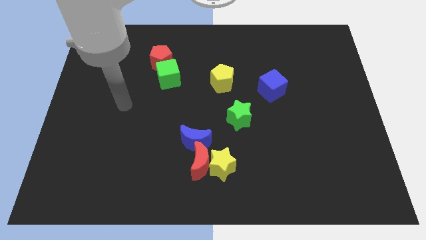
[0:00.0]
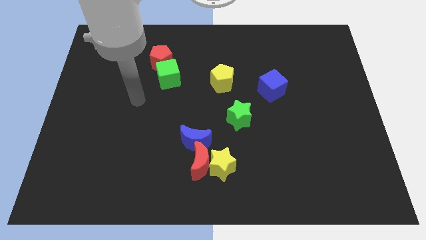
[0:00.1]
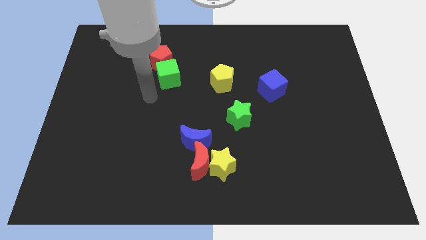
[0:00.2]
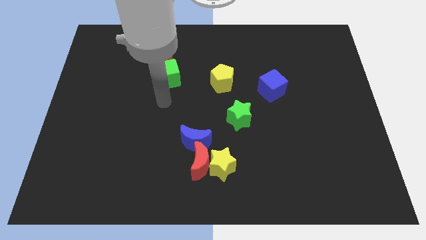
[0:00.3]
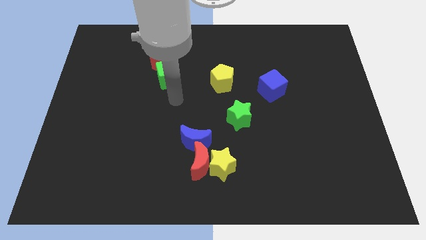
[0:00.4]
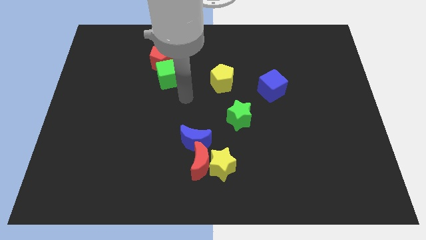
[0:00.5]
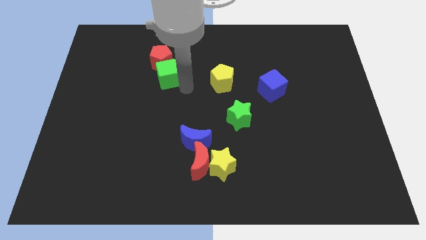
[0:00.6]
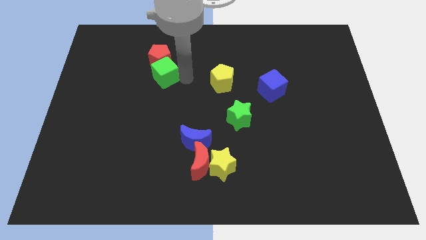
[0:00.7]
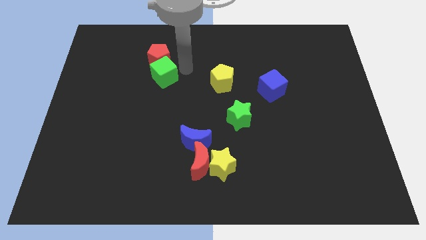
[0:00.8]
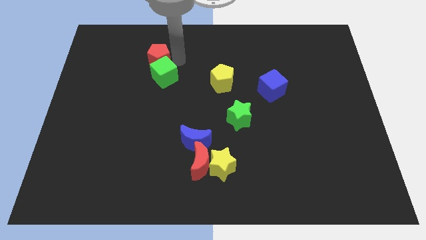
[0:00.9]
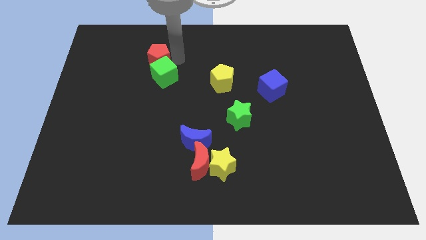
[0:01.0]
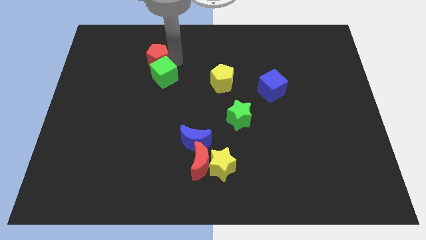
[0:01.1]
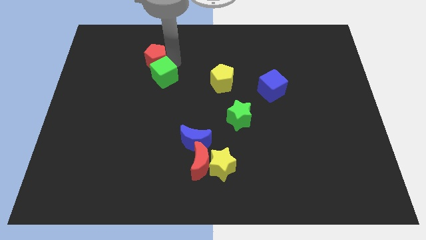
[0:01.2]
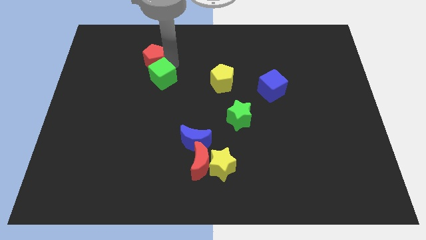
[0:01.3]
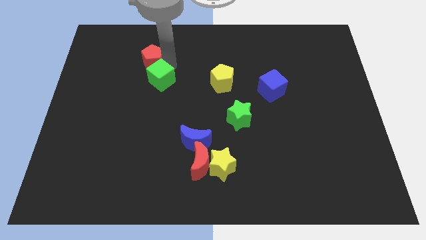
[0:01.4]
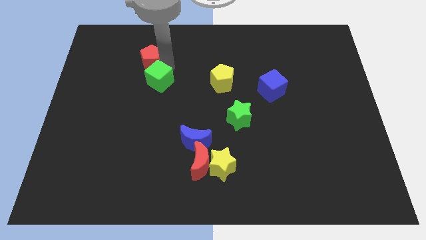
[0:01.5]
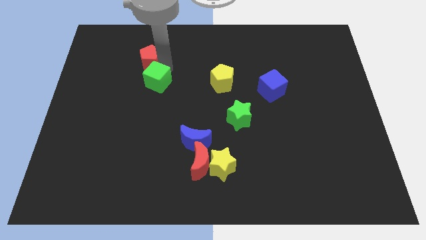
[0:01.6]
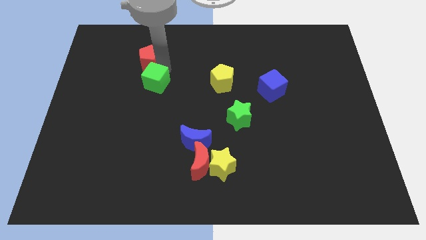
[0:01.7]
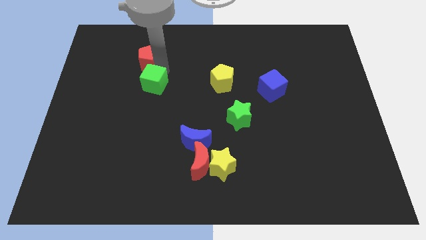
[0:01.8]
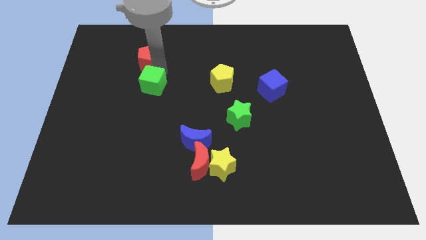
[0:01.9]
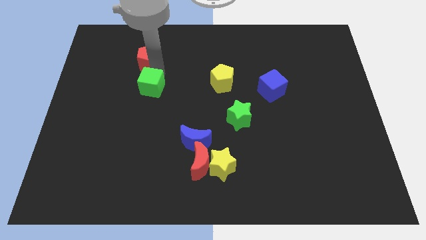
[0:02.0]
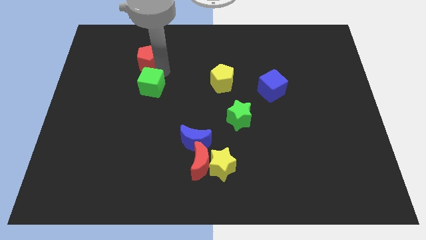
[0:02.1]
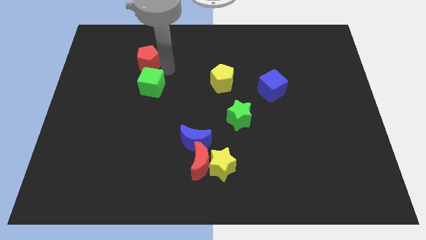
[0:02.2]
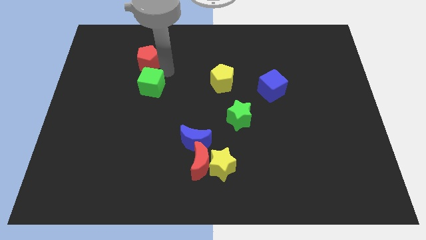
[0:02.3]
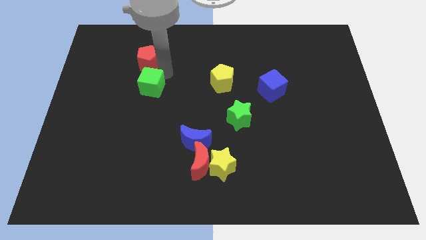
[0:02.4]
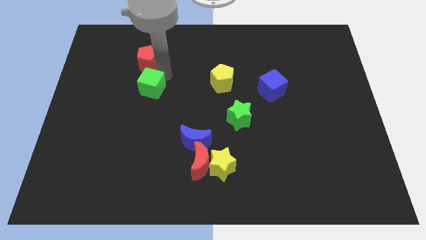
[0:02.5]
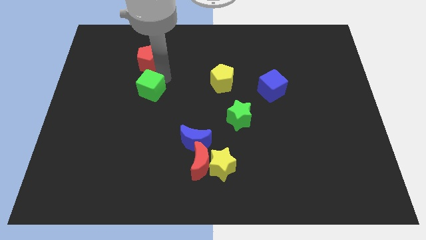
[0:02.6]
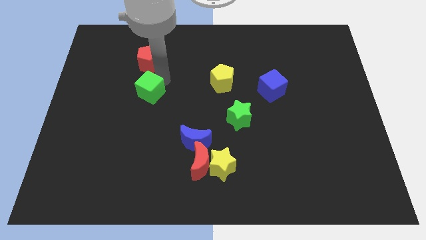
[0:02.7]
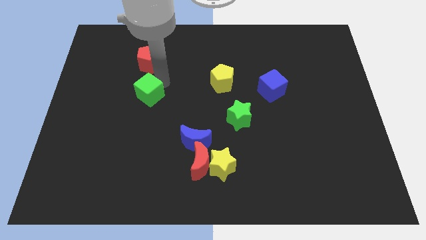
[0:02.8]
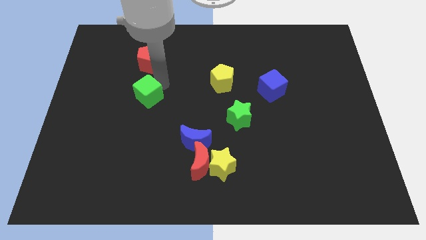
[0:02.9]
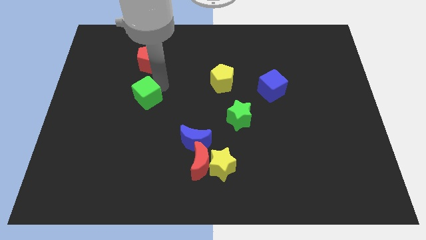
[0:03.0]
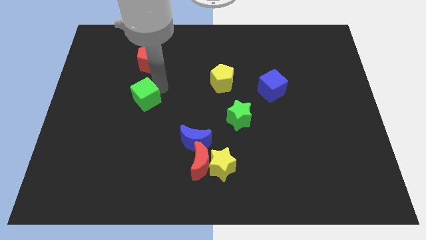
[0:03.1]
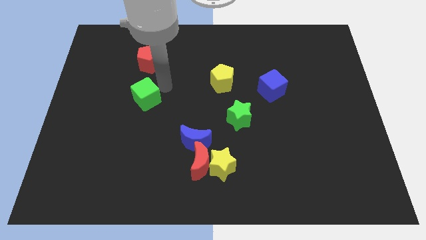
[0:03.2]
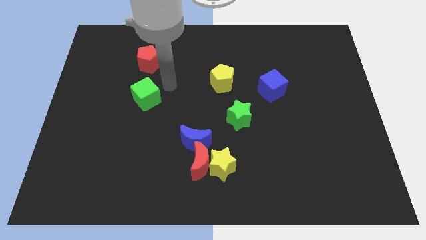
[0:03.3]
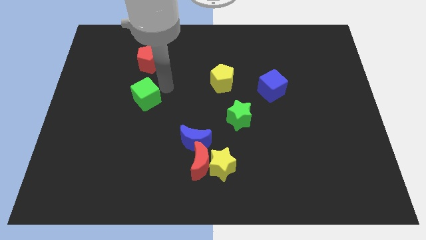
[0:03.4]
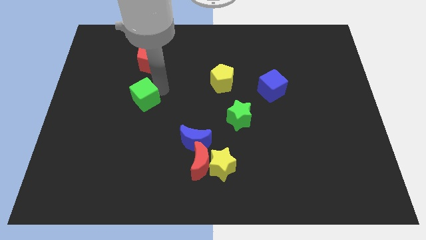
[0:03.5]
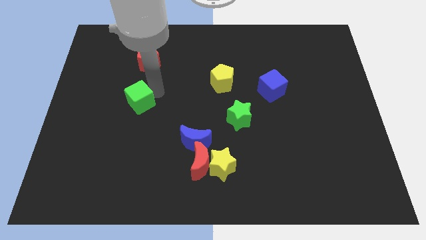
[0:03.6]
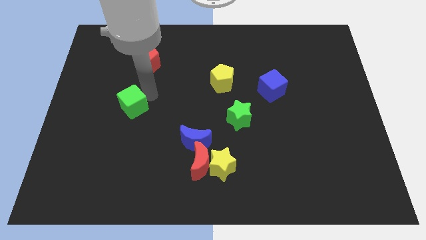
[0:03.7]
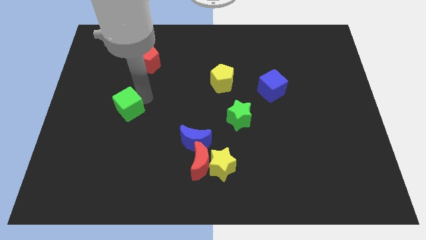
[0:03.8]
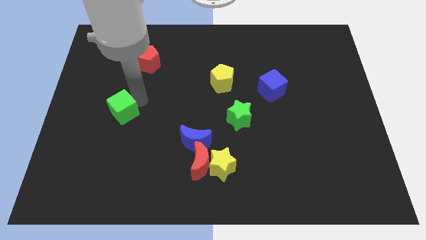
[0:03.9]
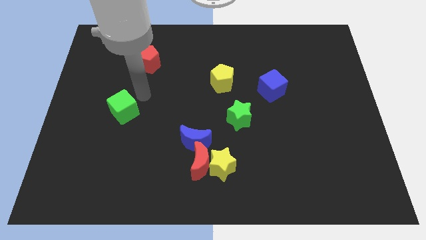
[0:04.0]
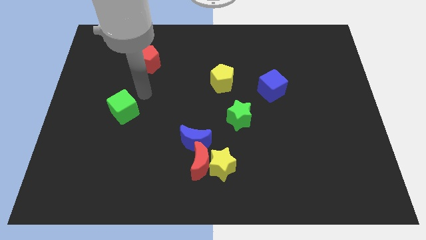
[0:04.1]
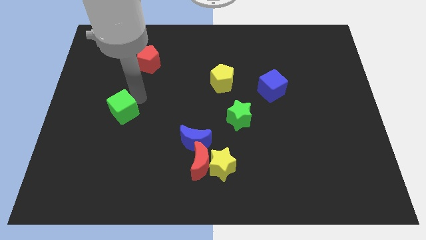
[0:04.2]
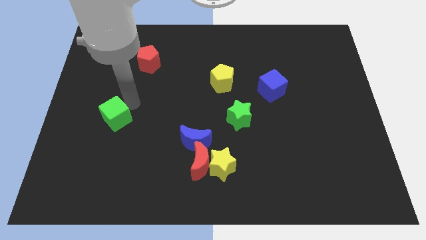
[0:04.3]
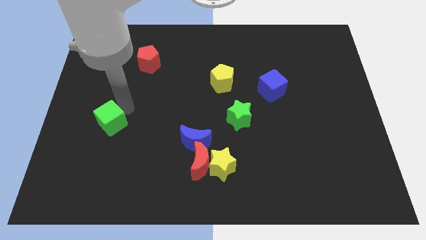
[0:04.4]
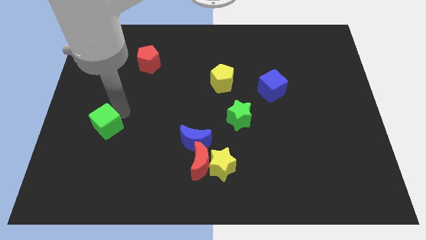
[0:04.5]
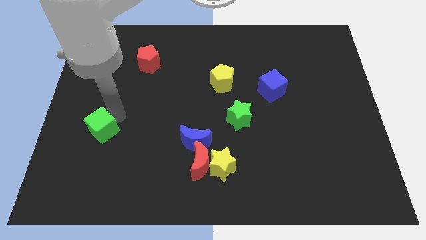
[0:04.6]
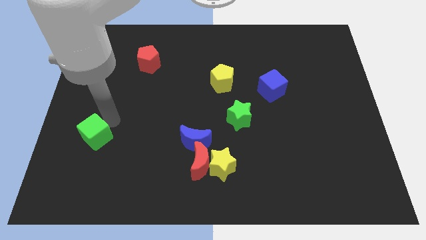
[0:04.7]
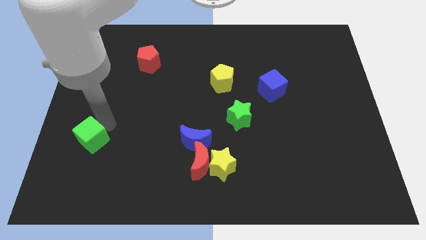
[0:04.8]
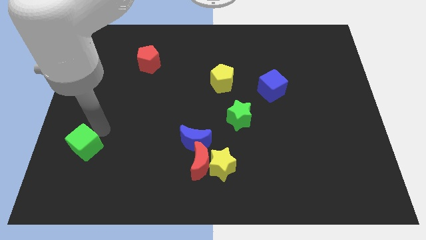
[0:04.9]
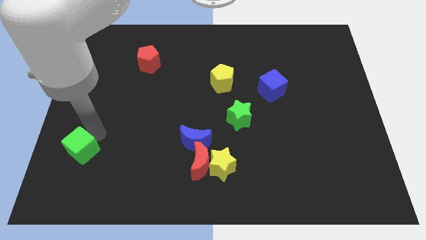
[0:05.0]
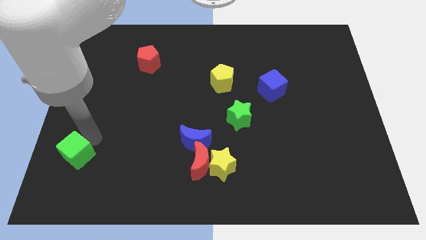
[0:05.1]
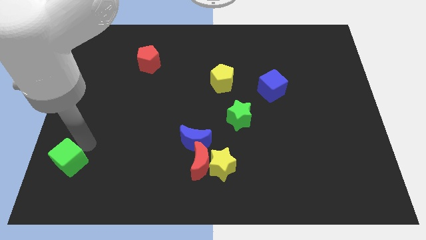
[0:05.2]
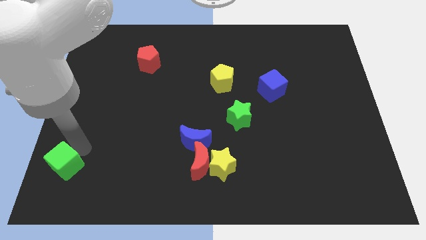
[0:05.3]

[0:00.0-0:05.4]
slide the green cube to the bottom left of the board

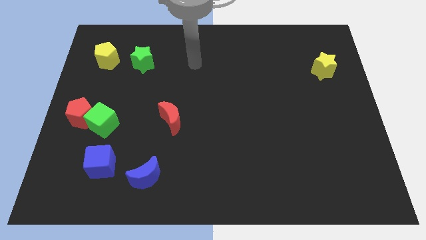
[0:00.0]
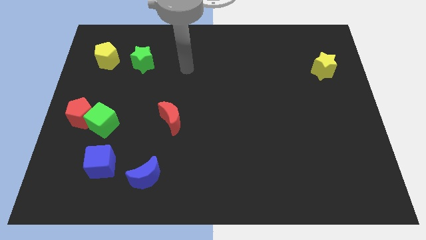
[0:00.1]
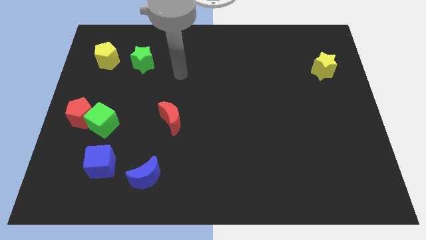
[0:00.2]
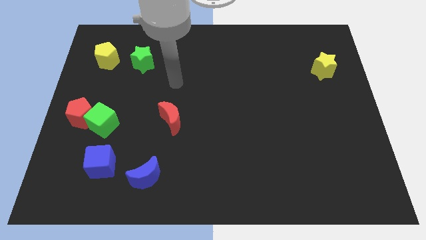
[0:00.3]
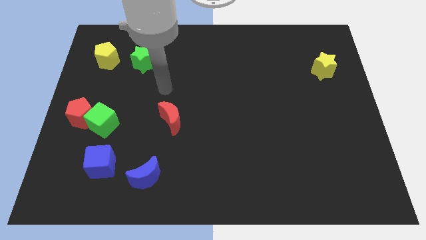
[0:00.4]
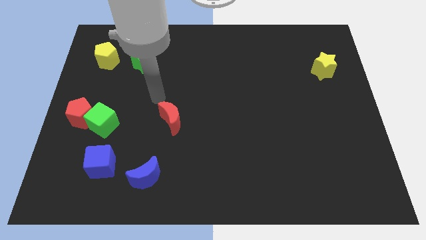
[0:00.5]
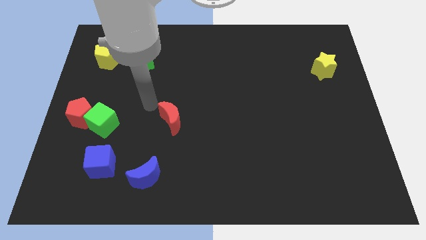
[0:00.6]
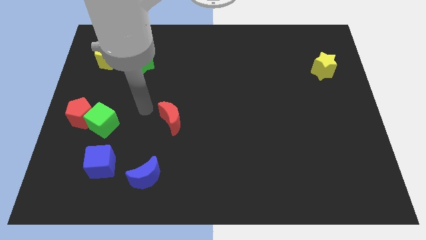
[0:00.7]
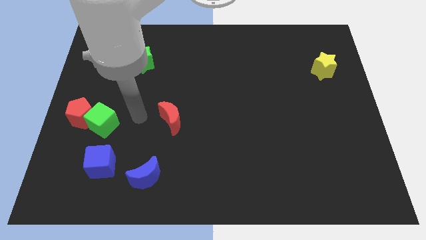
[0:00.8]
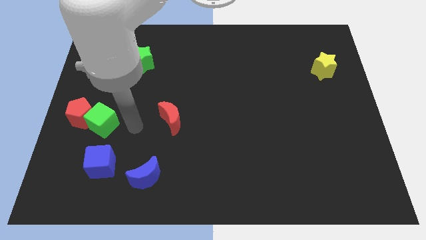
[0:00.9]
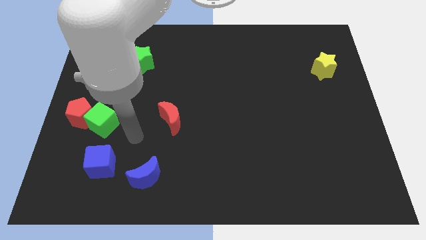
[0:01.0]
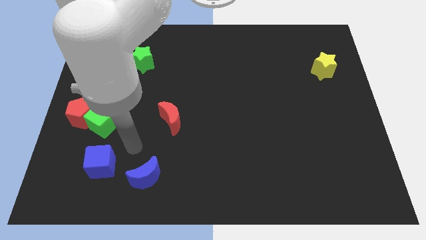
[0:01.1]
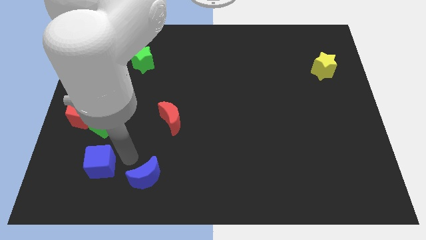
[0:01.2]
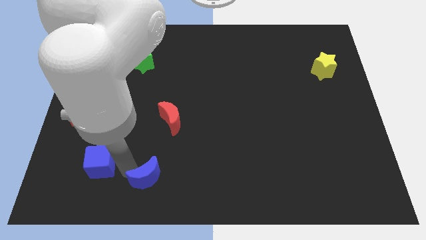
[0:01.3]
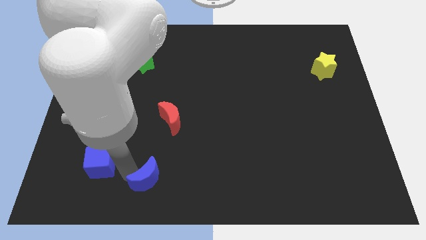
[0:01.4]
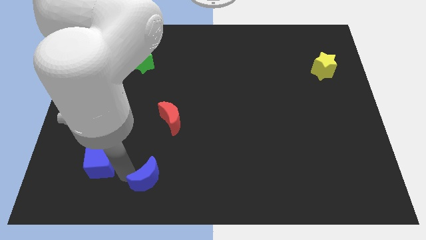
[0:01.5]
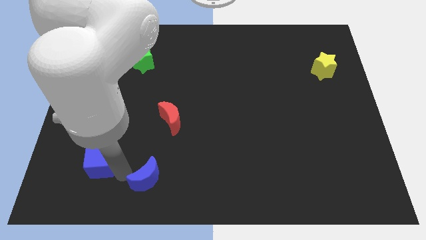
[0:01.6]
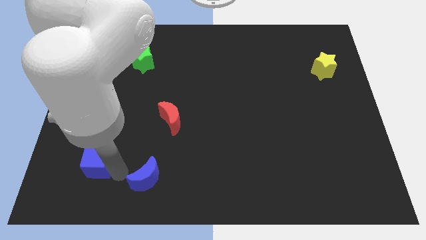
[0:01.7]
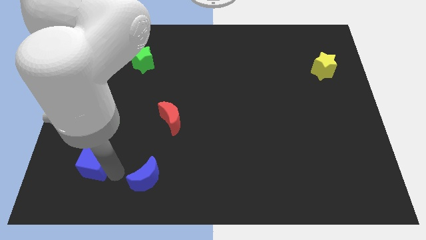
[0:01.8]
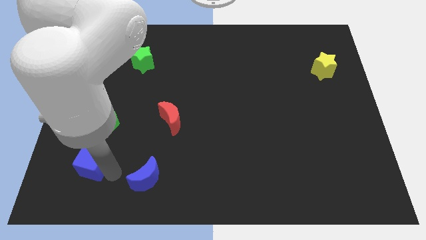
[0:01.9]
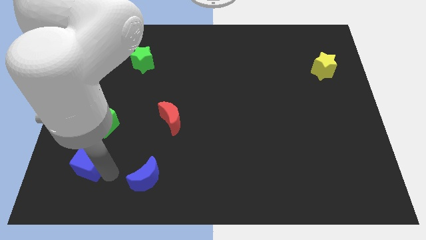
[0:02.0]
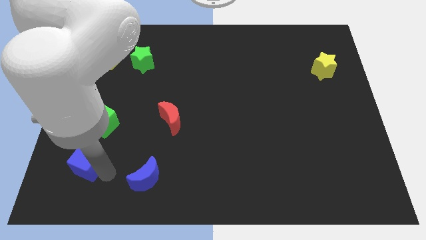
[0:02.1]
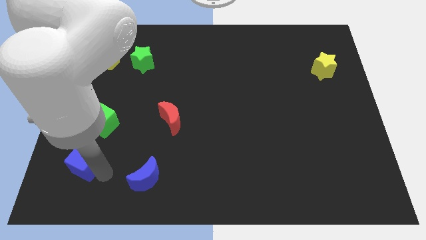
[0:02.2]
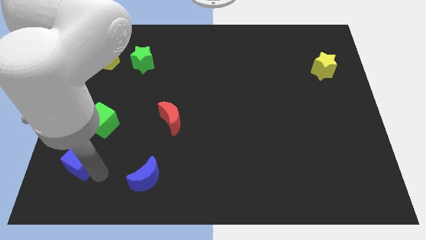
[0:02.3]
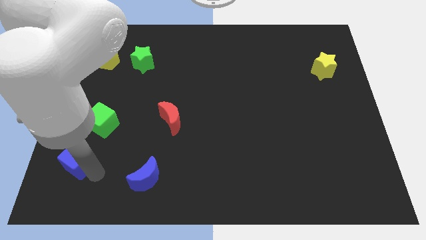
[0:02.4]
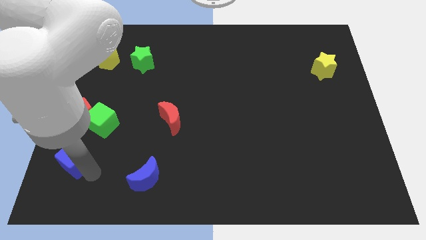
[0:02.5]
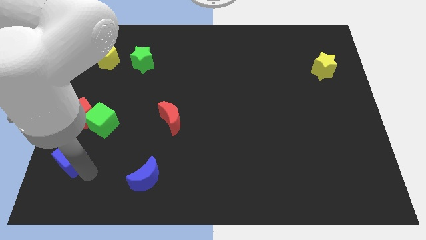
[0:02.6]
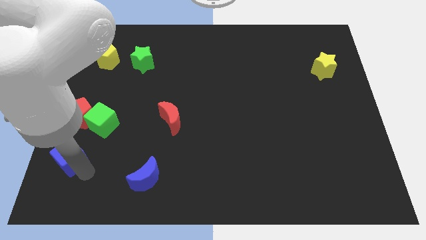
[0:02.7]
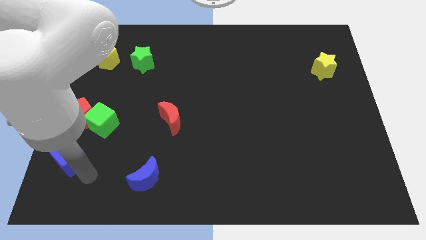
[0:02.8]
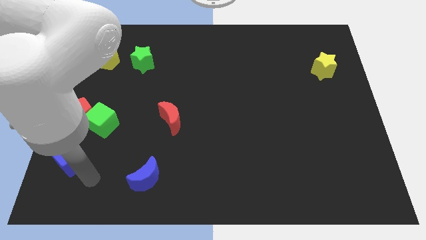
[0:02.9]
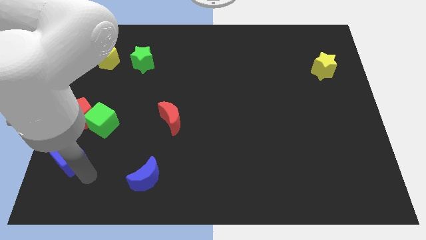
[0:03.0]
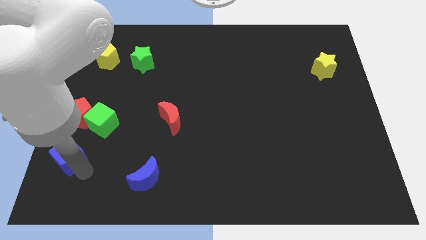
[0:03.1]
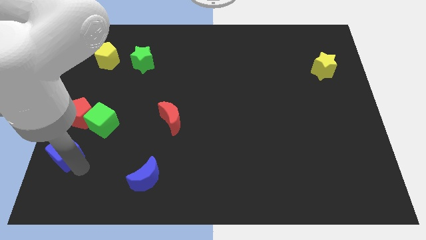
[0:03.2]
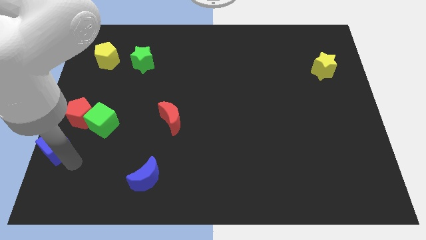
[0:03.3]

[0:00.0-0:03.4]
push the blue cube to the left side
